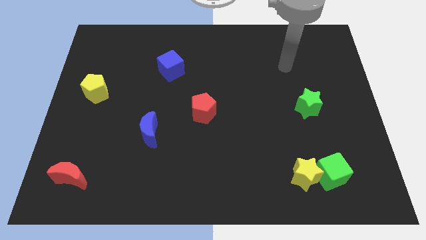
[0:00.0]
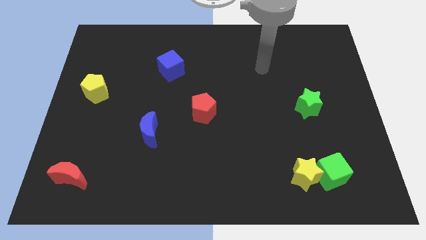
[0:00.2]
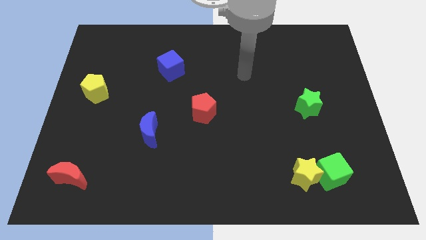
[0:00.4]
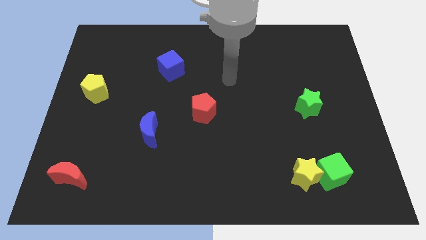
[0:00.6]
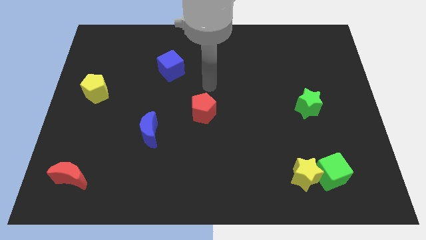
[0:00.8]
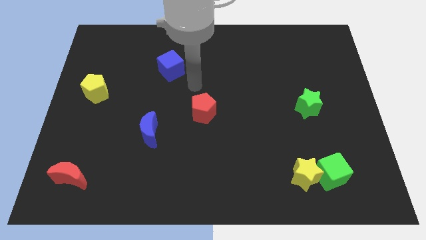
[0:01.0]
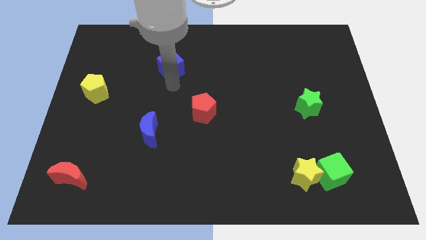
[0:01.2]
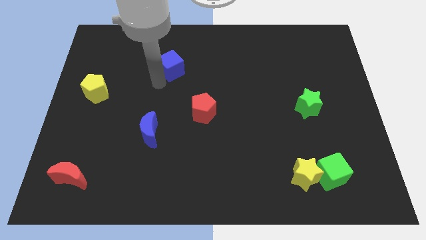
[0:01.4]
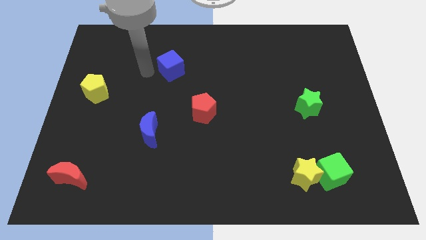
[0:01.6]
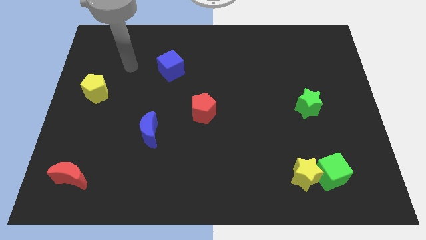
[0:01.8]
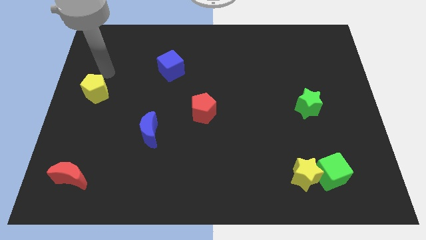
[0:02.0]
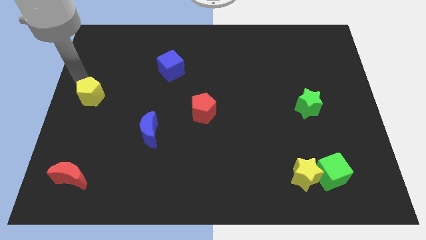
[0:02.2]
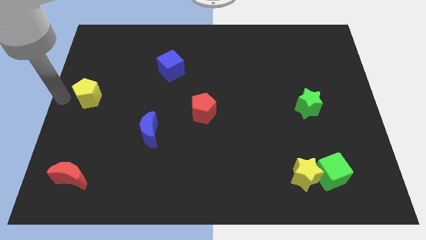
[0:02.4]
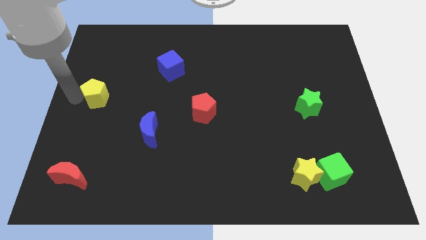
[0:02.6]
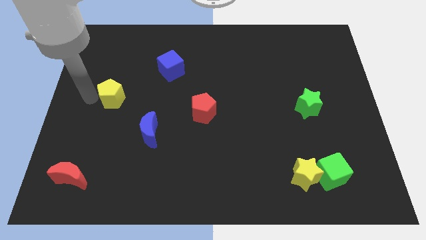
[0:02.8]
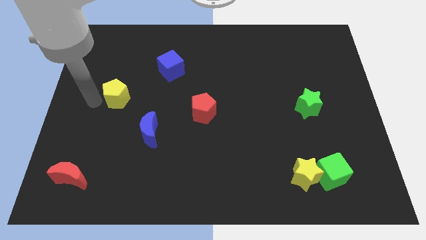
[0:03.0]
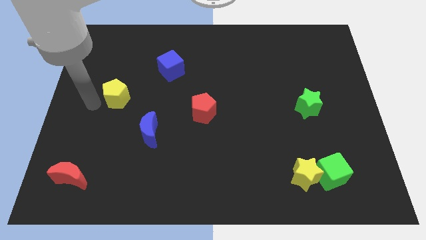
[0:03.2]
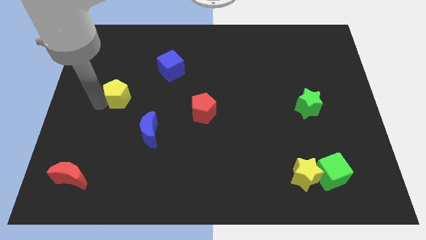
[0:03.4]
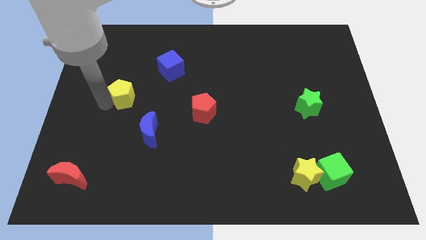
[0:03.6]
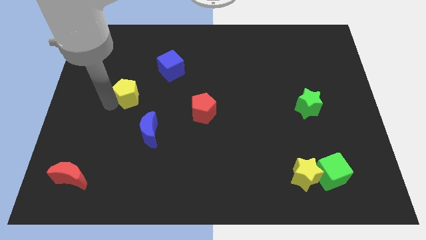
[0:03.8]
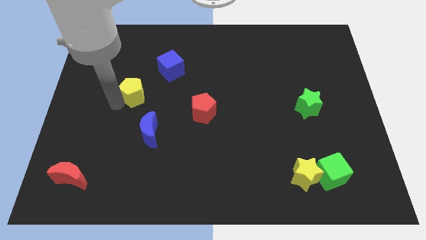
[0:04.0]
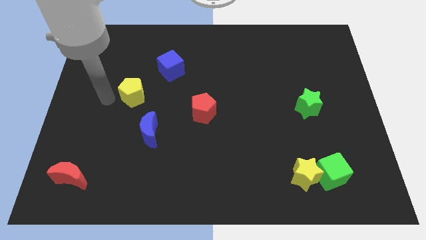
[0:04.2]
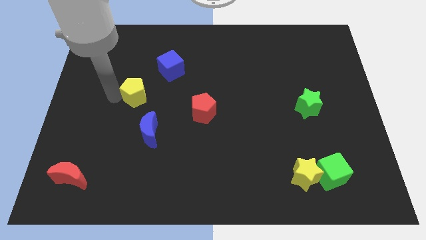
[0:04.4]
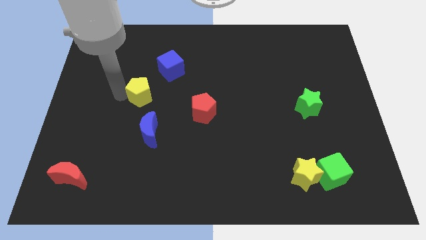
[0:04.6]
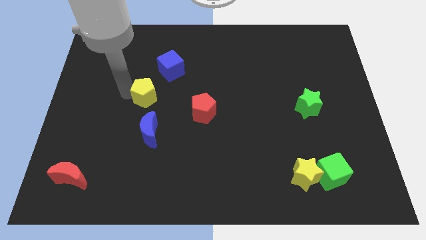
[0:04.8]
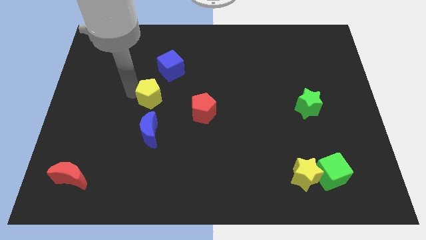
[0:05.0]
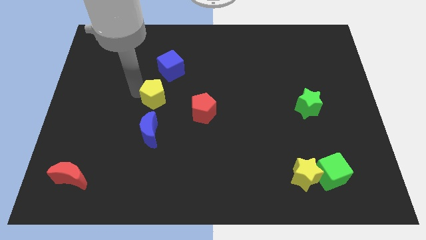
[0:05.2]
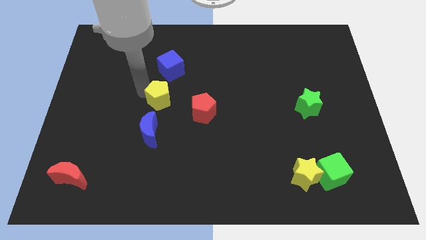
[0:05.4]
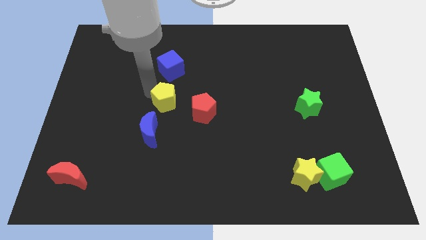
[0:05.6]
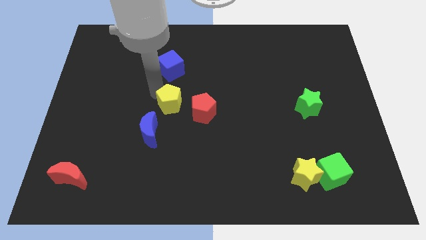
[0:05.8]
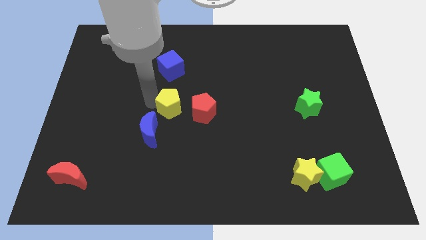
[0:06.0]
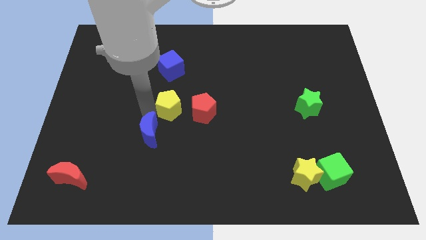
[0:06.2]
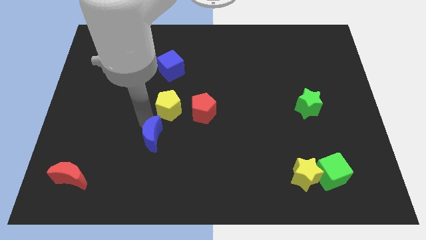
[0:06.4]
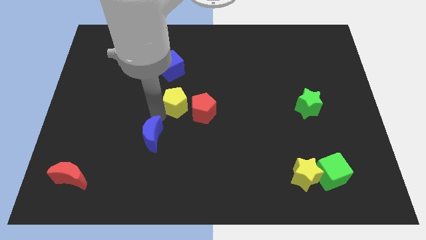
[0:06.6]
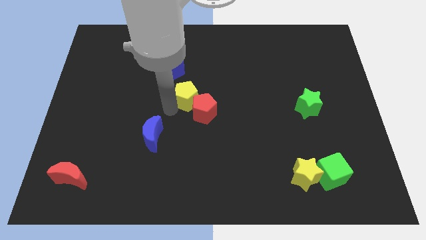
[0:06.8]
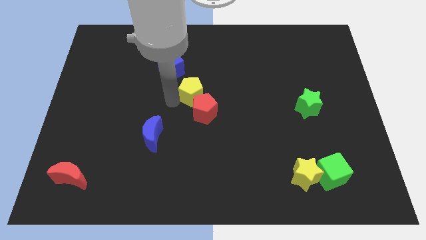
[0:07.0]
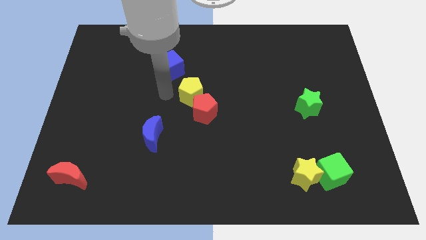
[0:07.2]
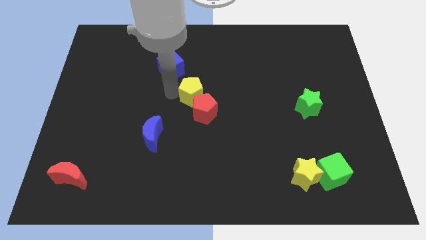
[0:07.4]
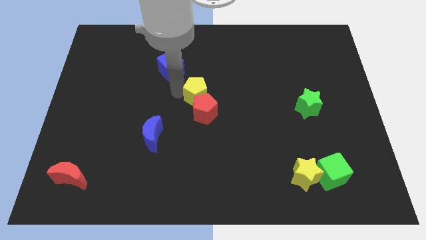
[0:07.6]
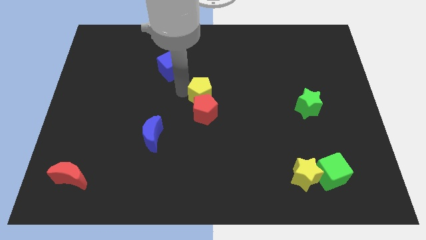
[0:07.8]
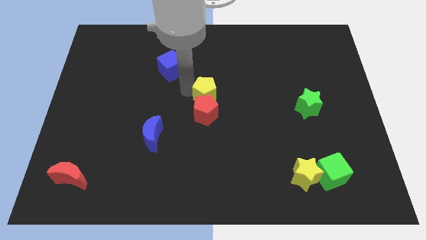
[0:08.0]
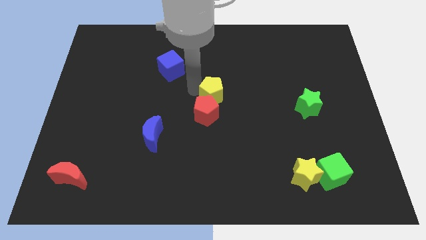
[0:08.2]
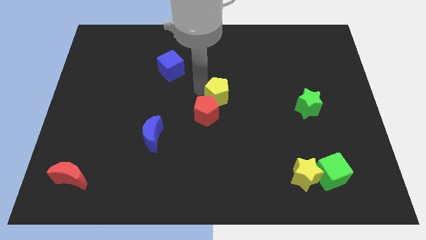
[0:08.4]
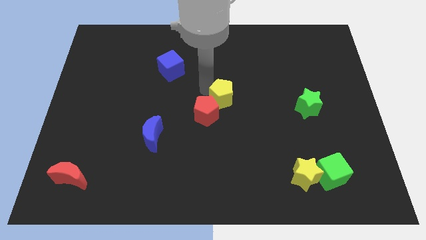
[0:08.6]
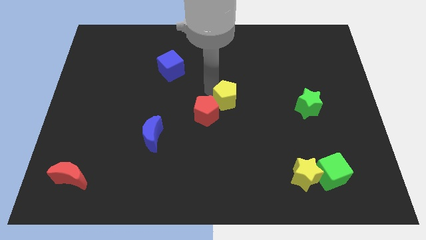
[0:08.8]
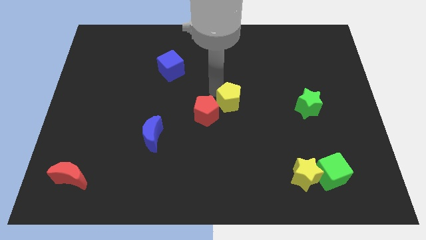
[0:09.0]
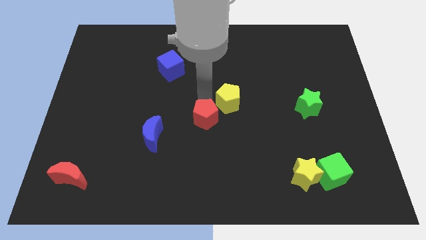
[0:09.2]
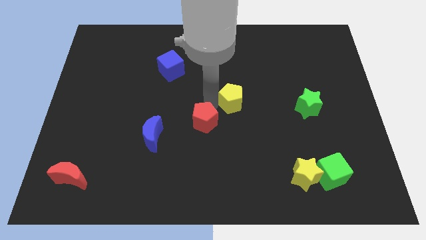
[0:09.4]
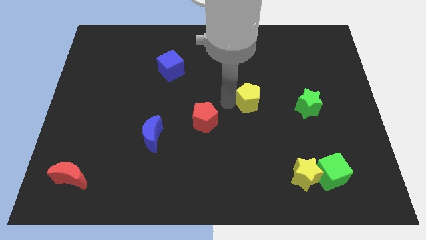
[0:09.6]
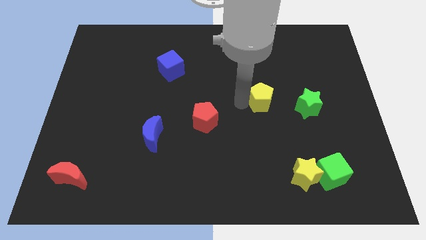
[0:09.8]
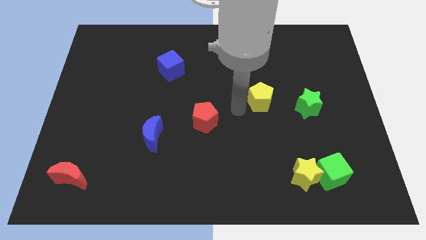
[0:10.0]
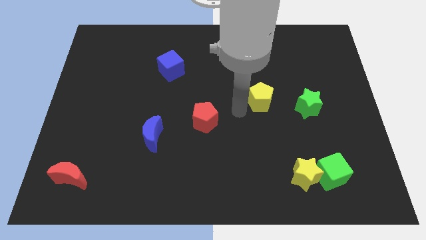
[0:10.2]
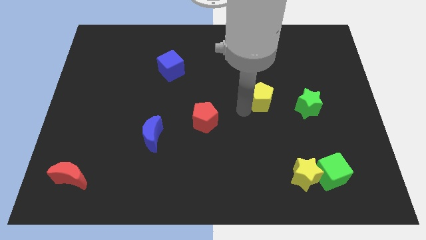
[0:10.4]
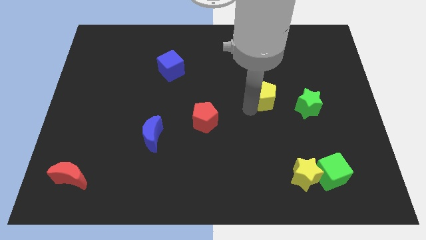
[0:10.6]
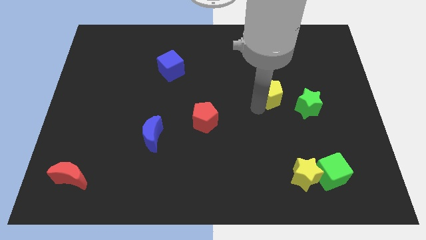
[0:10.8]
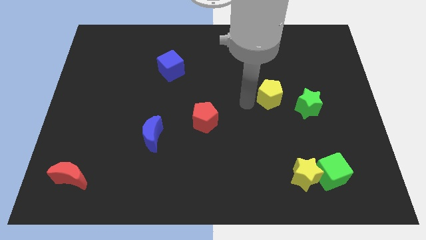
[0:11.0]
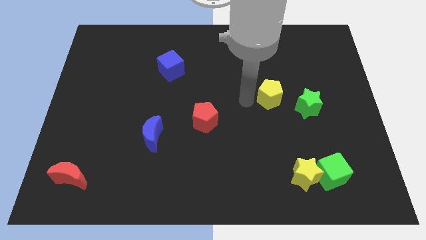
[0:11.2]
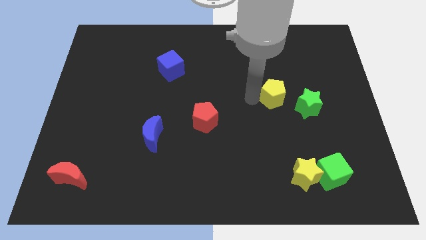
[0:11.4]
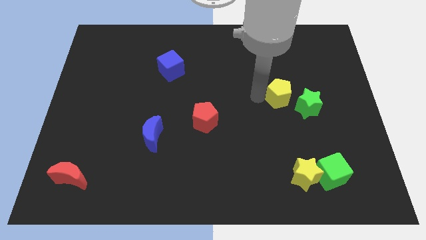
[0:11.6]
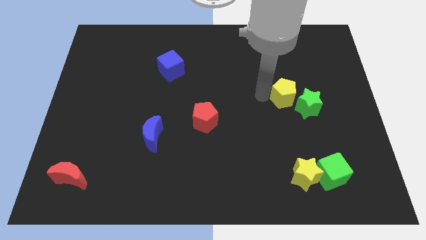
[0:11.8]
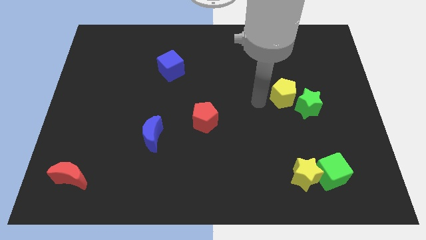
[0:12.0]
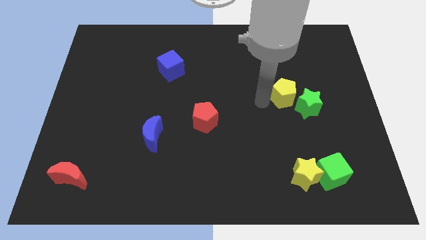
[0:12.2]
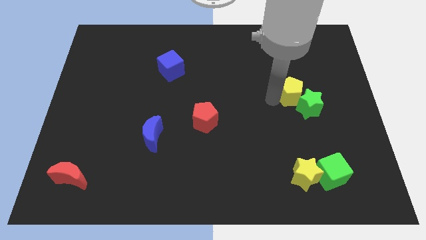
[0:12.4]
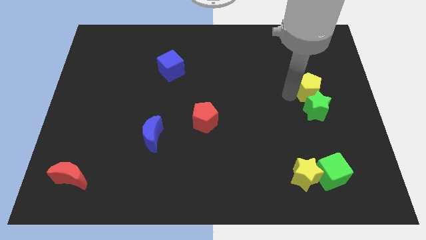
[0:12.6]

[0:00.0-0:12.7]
push the yellow pentagon diagonally up and to the right of the green star

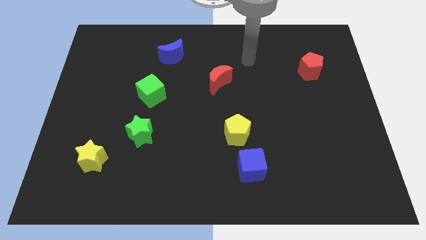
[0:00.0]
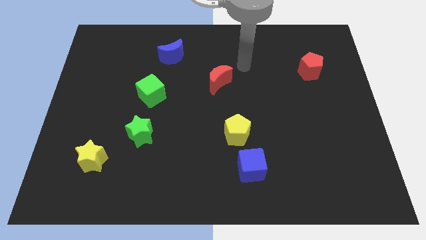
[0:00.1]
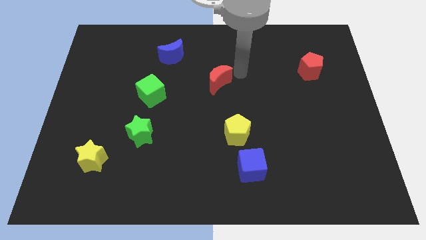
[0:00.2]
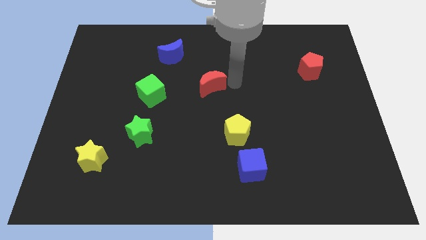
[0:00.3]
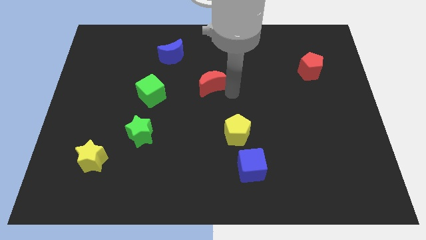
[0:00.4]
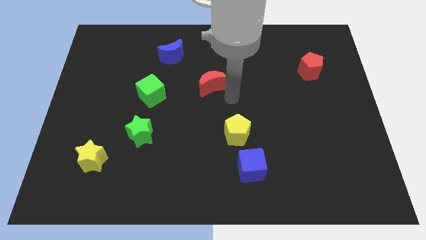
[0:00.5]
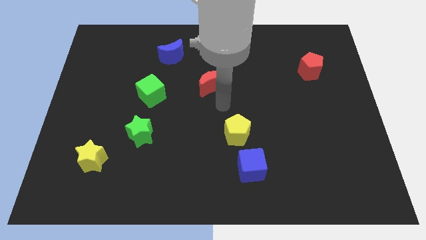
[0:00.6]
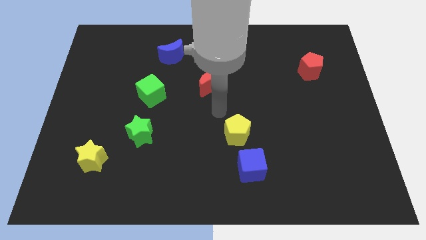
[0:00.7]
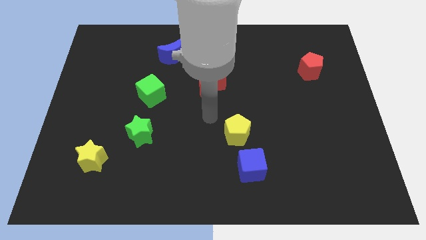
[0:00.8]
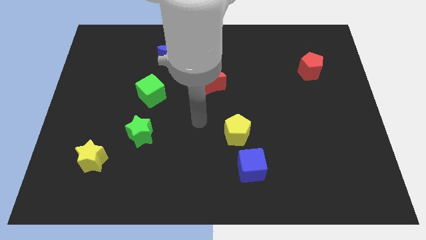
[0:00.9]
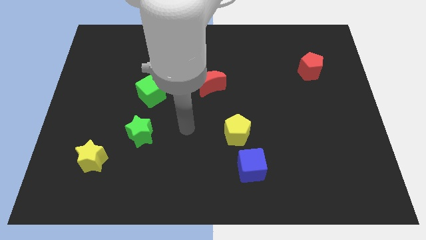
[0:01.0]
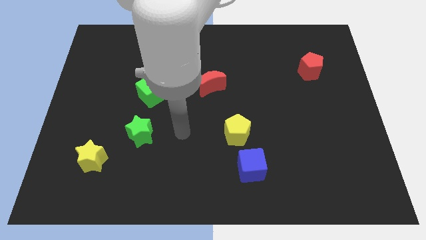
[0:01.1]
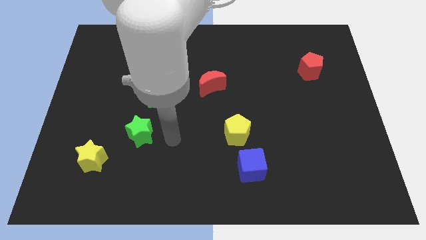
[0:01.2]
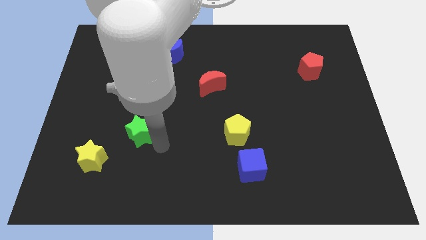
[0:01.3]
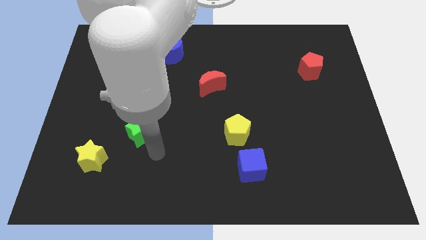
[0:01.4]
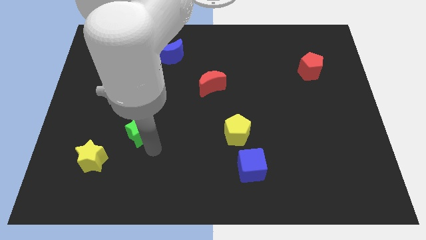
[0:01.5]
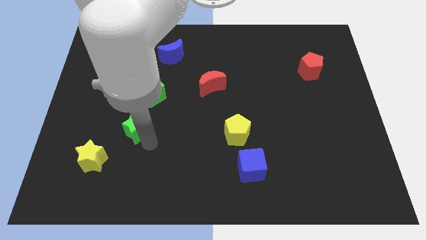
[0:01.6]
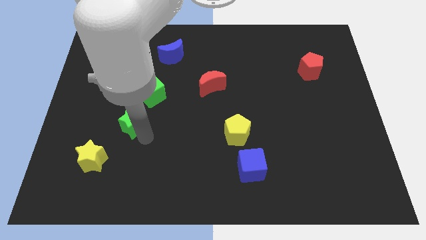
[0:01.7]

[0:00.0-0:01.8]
move the green star diagonally down and to the left of the green cube
